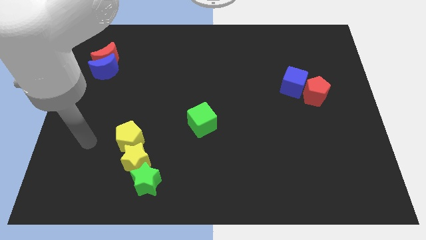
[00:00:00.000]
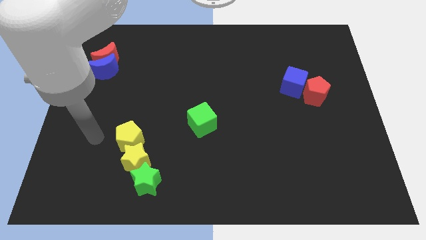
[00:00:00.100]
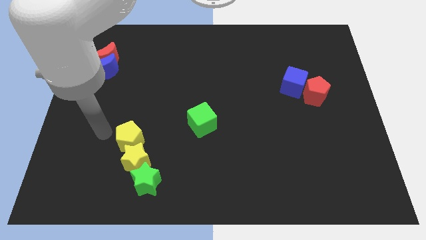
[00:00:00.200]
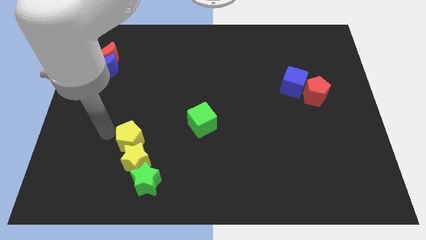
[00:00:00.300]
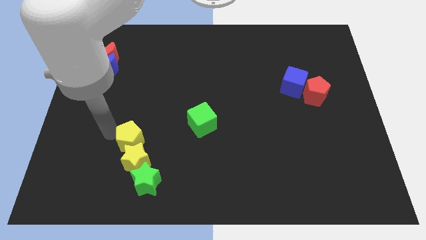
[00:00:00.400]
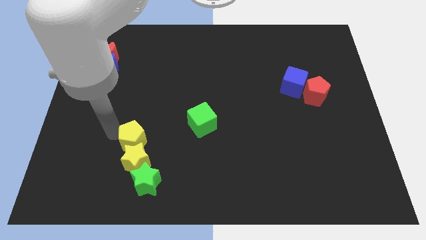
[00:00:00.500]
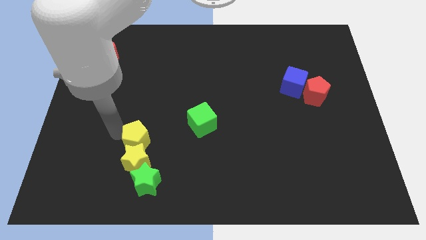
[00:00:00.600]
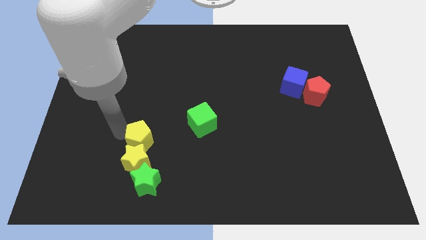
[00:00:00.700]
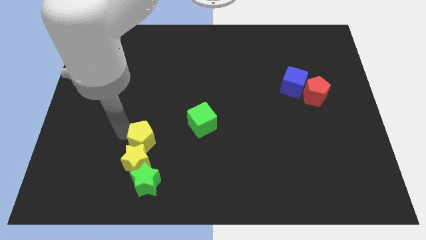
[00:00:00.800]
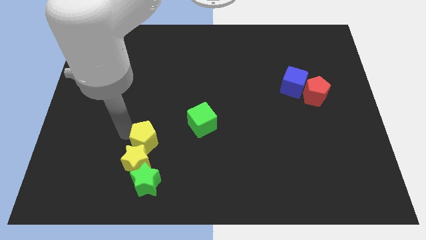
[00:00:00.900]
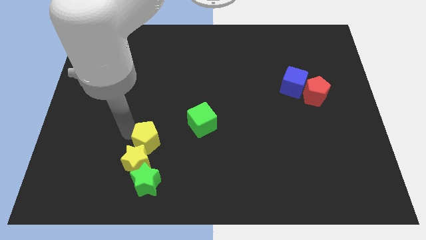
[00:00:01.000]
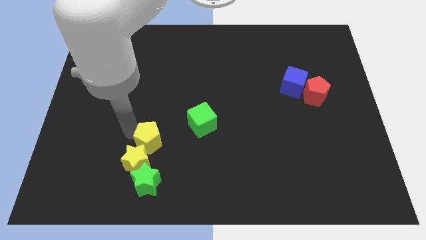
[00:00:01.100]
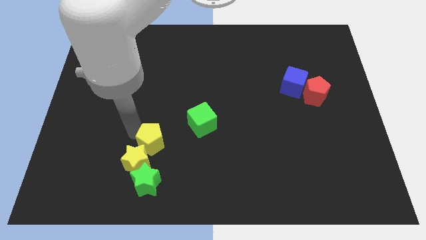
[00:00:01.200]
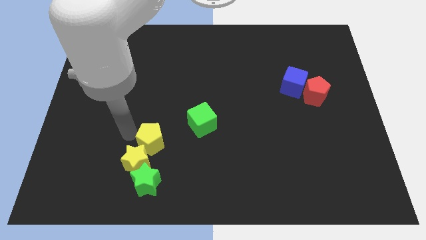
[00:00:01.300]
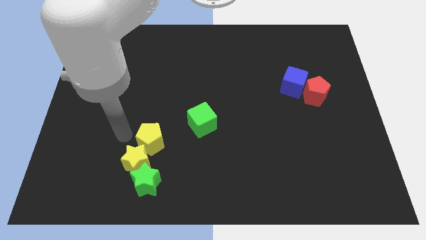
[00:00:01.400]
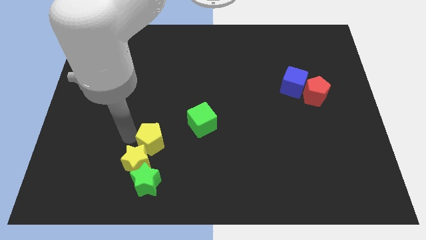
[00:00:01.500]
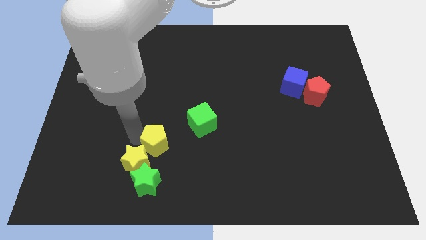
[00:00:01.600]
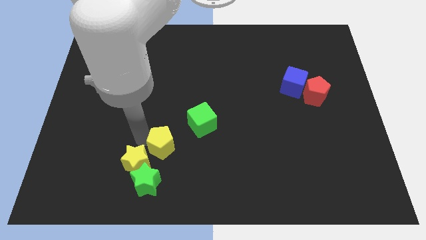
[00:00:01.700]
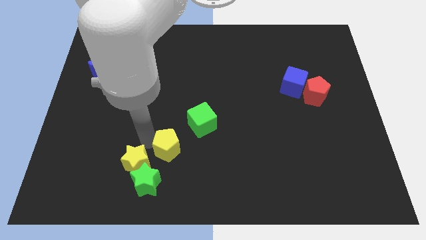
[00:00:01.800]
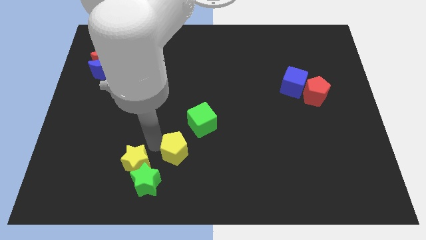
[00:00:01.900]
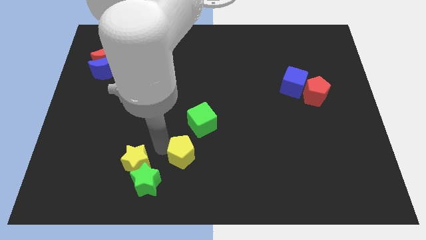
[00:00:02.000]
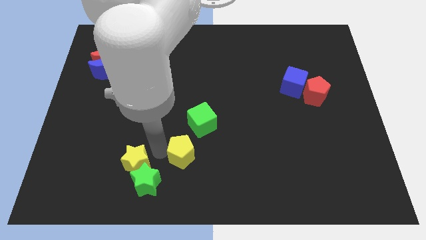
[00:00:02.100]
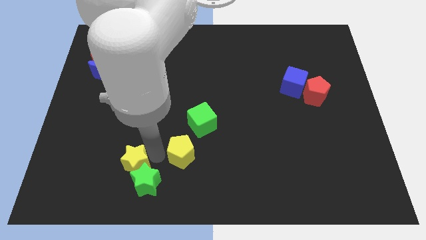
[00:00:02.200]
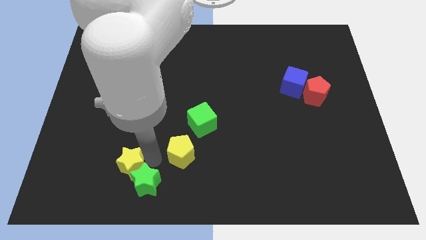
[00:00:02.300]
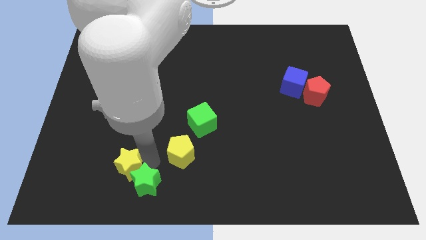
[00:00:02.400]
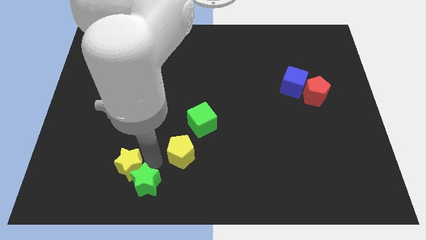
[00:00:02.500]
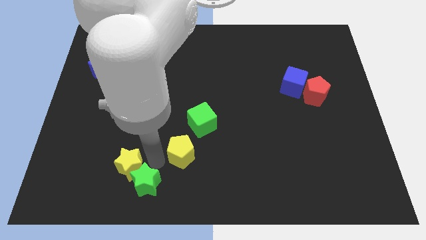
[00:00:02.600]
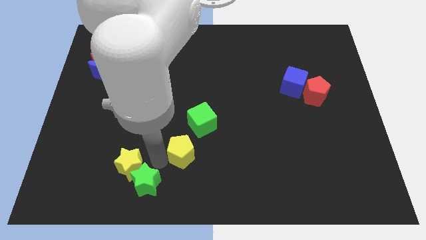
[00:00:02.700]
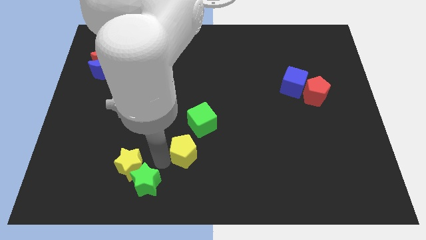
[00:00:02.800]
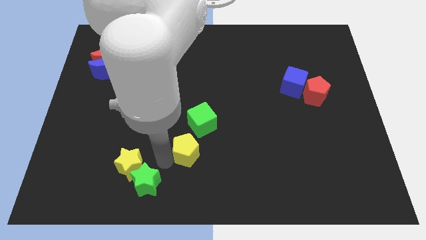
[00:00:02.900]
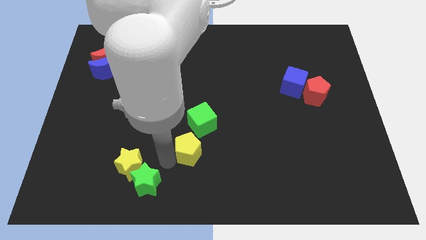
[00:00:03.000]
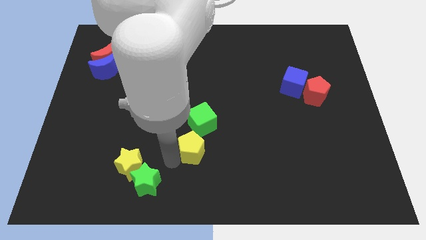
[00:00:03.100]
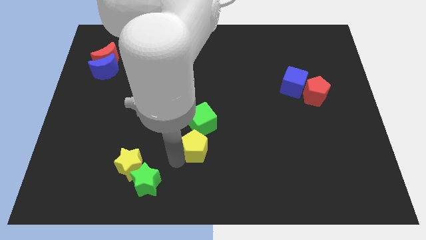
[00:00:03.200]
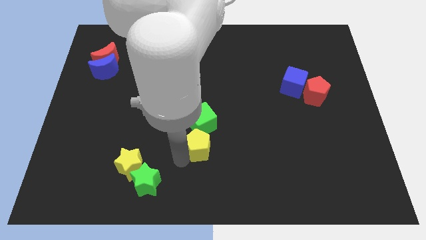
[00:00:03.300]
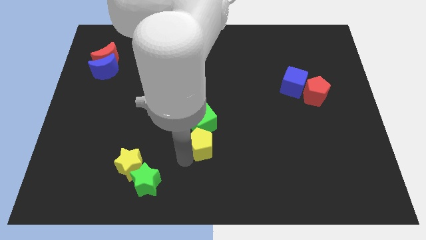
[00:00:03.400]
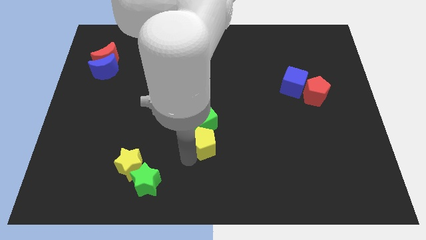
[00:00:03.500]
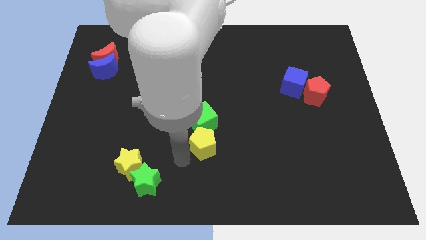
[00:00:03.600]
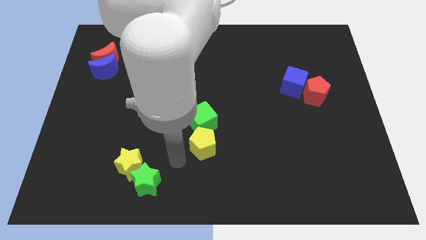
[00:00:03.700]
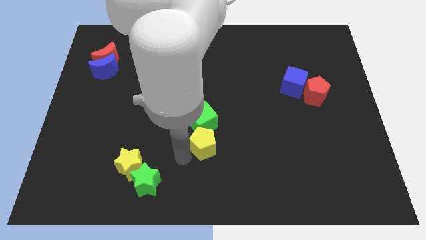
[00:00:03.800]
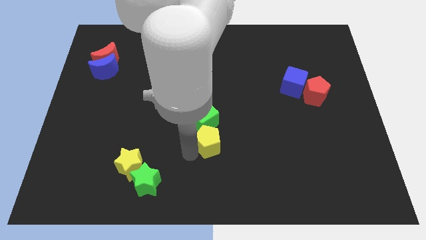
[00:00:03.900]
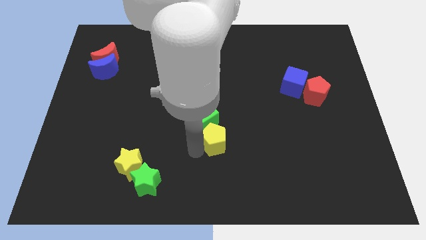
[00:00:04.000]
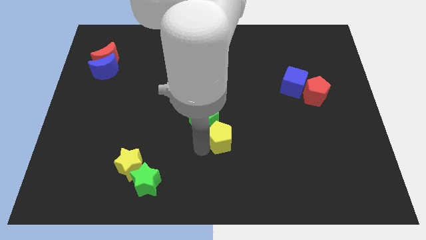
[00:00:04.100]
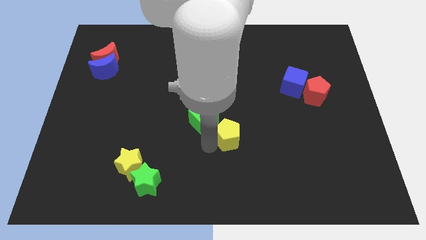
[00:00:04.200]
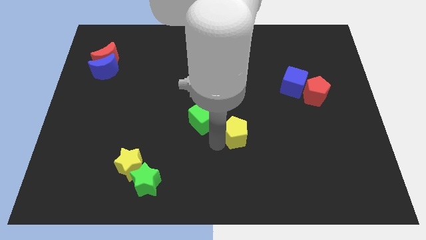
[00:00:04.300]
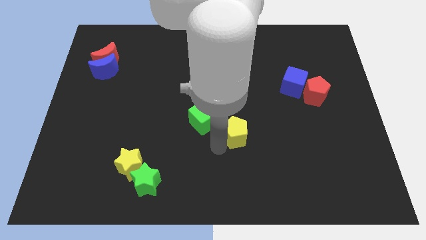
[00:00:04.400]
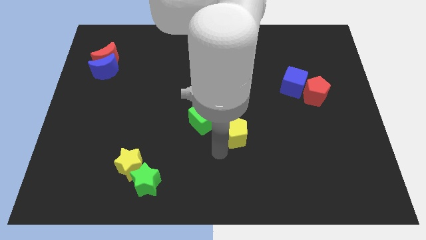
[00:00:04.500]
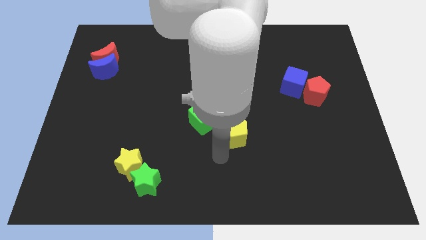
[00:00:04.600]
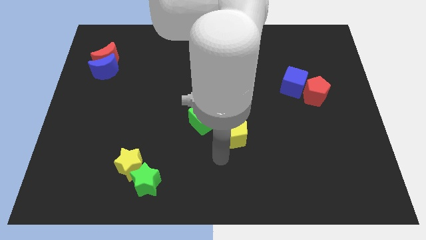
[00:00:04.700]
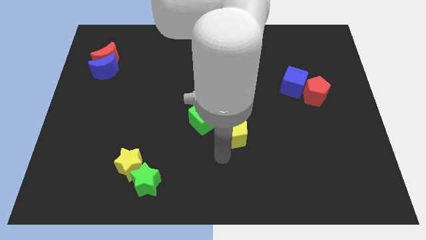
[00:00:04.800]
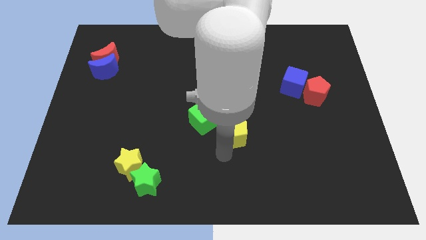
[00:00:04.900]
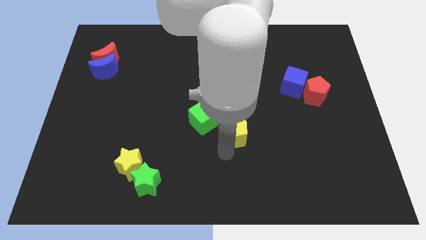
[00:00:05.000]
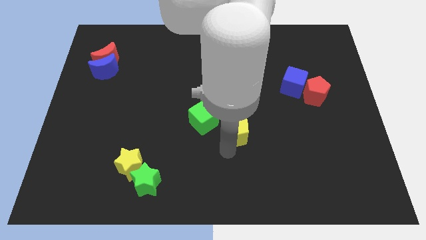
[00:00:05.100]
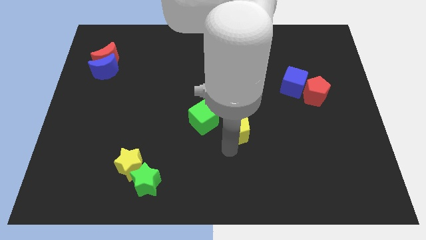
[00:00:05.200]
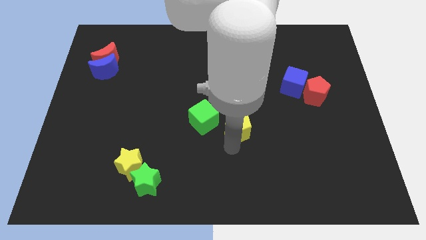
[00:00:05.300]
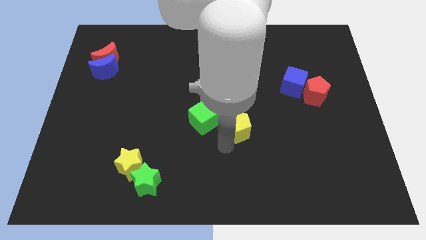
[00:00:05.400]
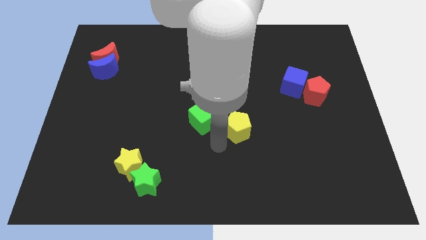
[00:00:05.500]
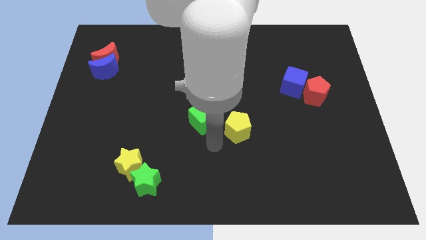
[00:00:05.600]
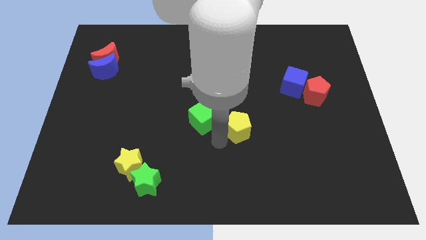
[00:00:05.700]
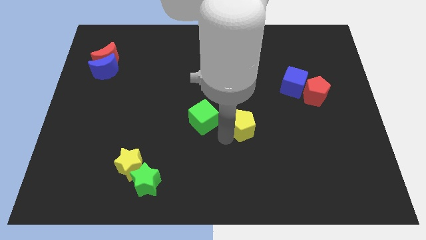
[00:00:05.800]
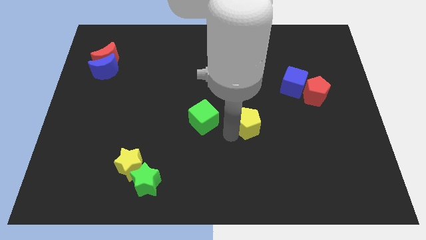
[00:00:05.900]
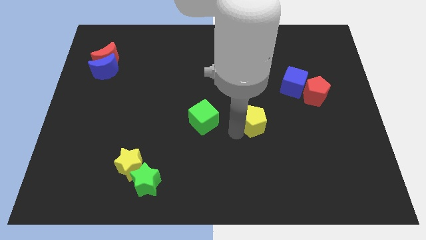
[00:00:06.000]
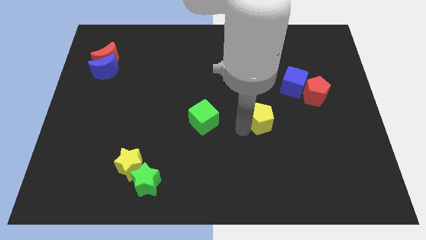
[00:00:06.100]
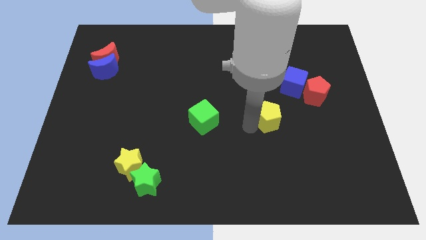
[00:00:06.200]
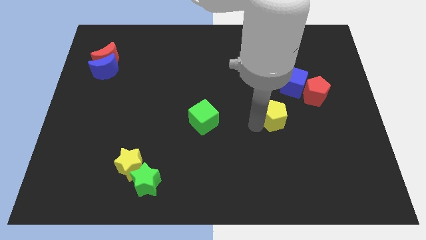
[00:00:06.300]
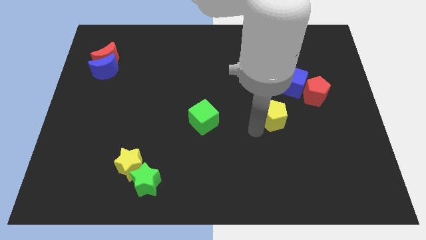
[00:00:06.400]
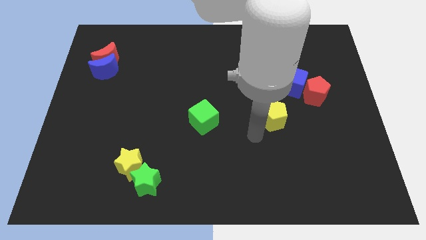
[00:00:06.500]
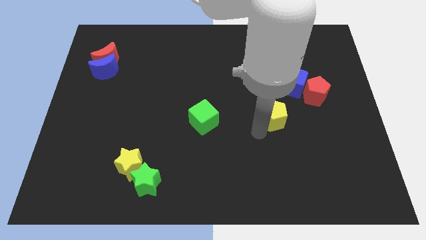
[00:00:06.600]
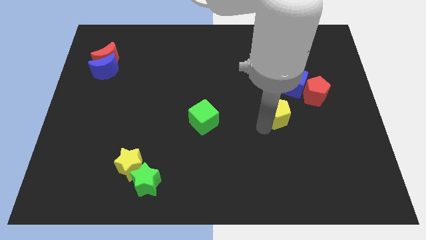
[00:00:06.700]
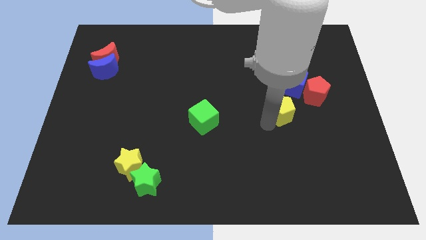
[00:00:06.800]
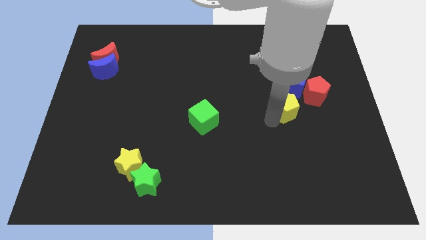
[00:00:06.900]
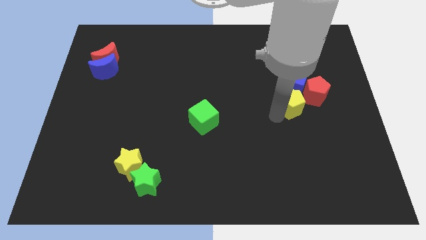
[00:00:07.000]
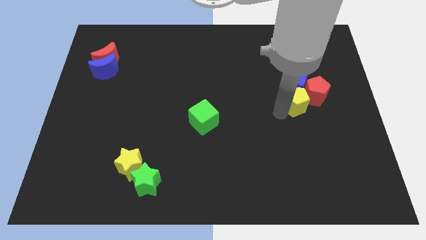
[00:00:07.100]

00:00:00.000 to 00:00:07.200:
slide the yellow pentagon to the red pentagon

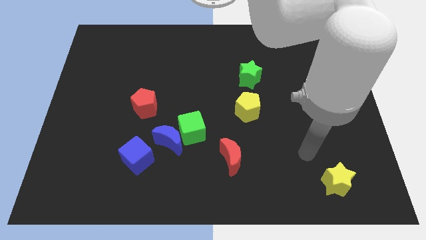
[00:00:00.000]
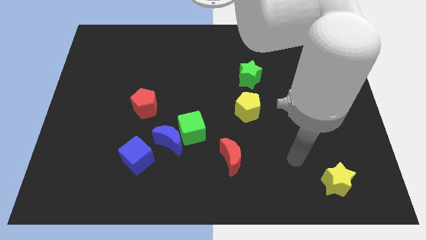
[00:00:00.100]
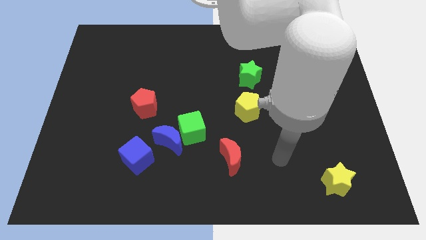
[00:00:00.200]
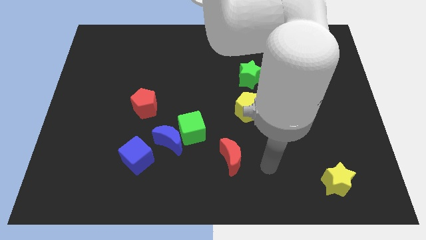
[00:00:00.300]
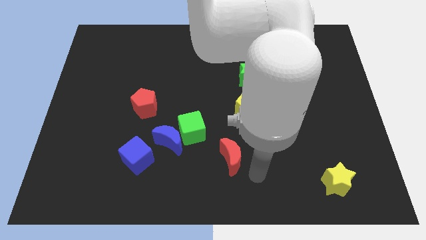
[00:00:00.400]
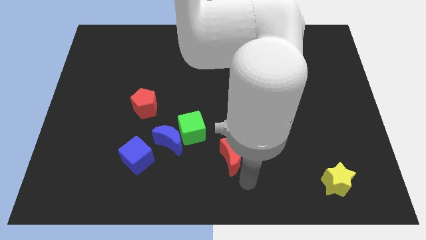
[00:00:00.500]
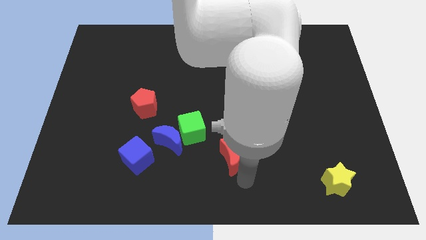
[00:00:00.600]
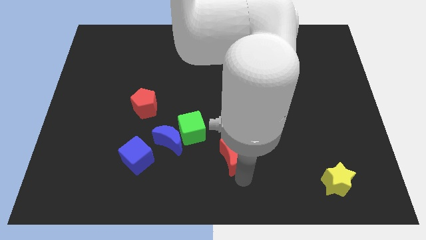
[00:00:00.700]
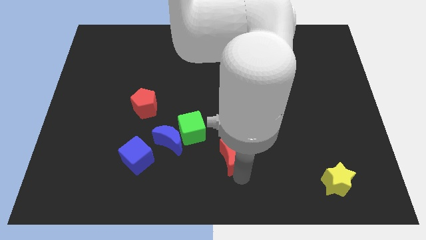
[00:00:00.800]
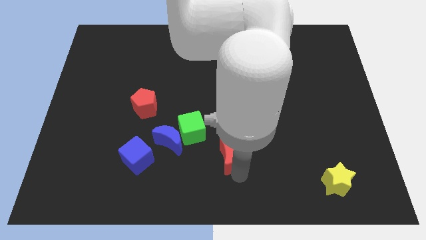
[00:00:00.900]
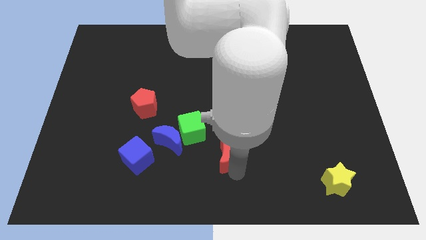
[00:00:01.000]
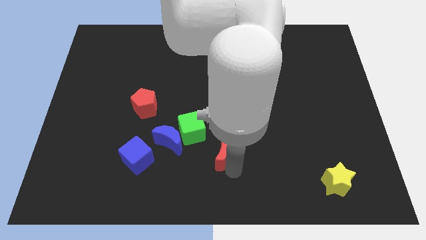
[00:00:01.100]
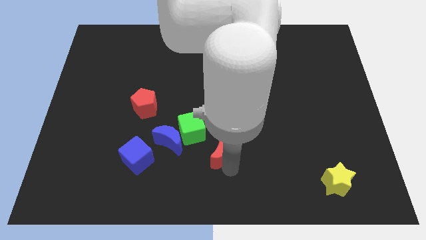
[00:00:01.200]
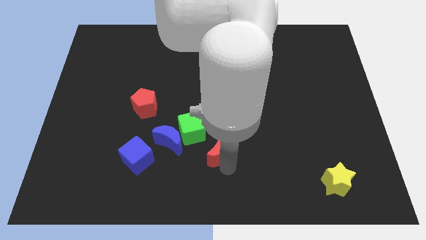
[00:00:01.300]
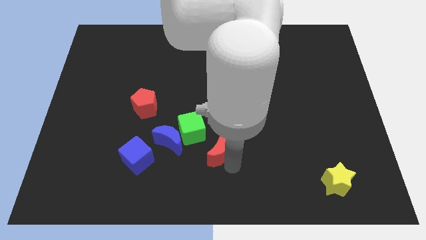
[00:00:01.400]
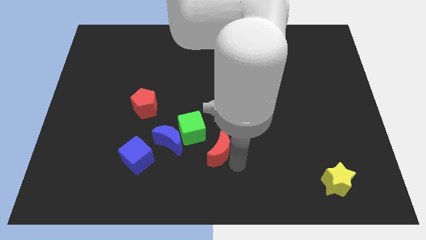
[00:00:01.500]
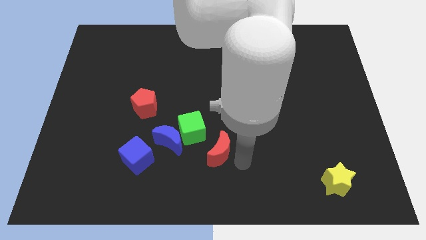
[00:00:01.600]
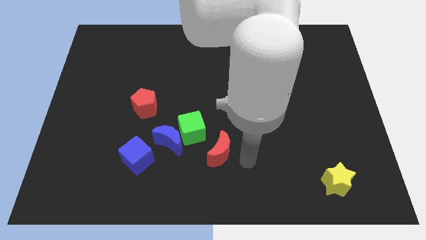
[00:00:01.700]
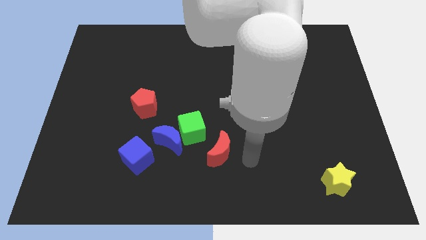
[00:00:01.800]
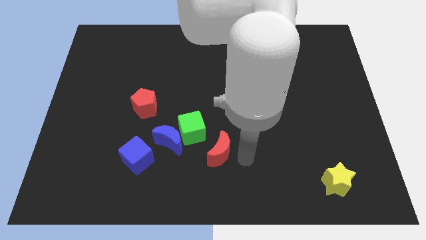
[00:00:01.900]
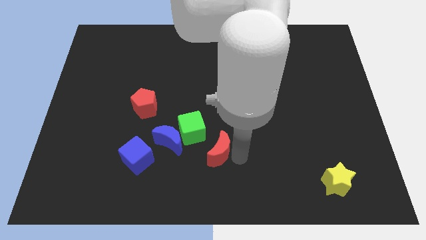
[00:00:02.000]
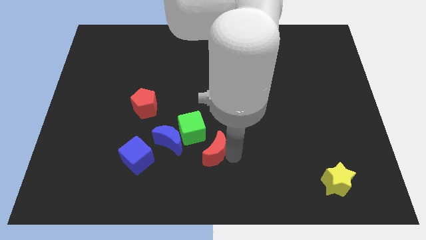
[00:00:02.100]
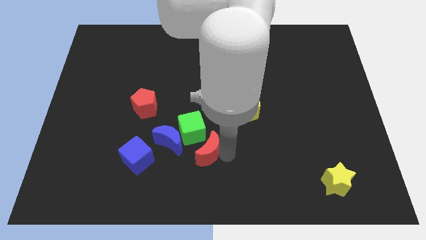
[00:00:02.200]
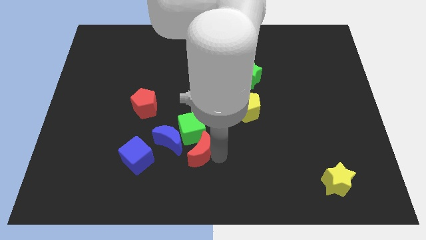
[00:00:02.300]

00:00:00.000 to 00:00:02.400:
slide the red moon to the green cube
